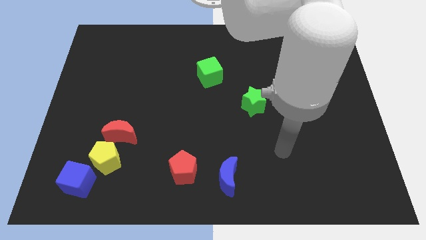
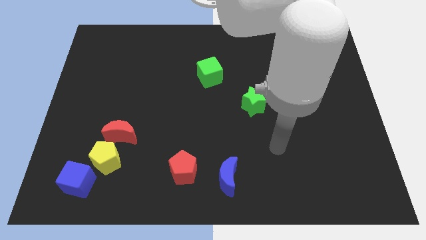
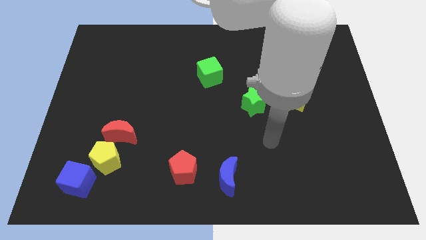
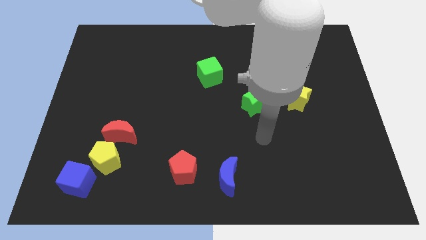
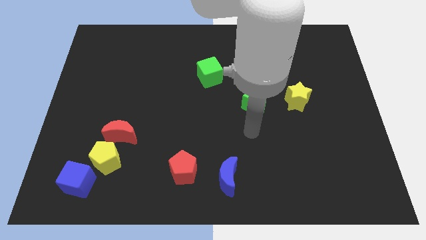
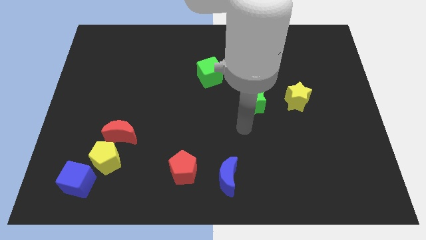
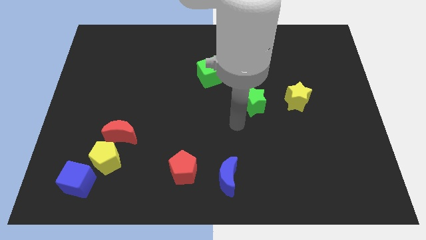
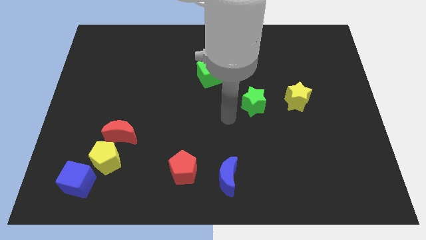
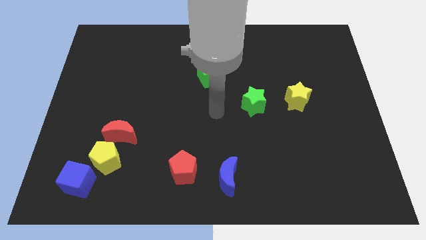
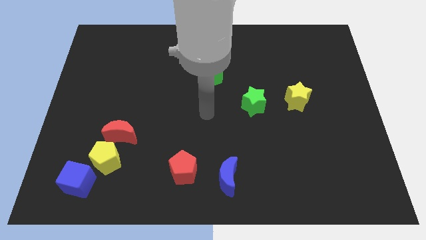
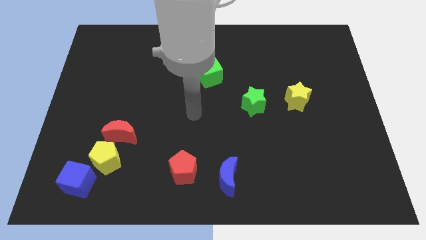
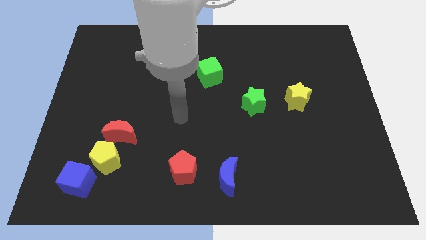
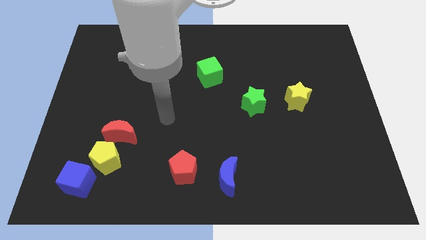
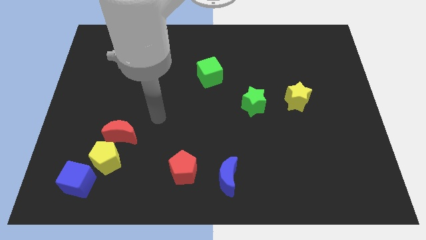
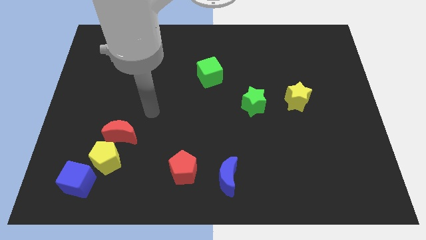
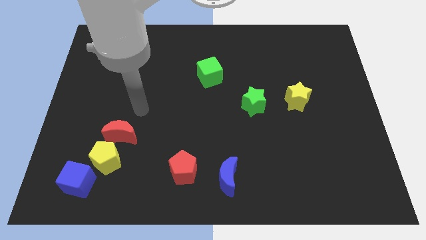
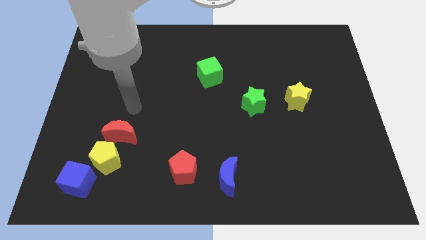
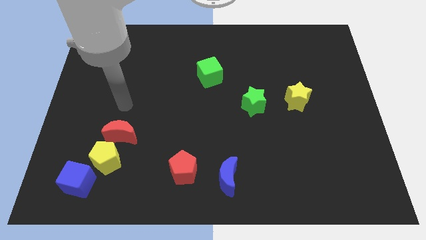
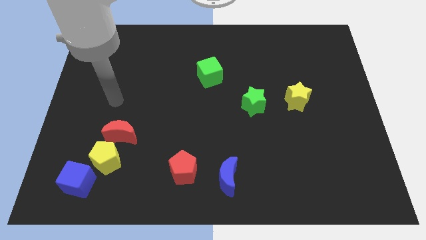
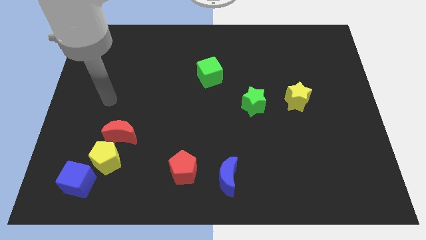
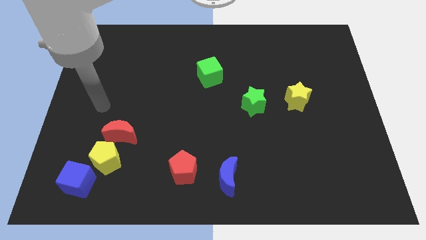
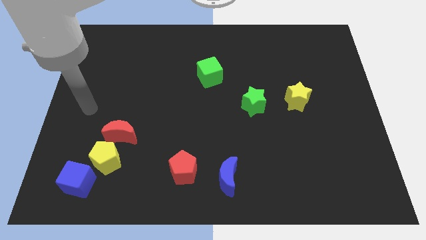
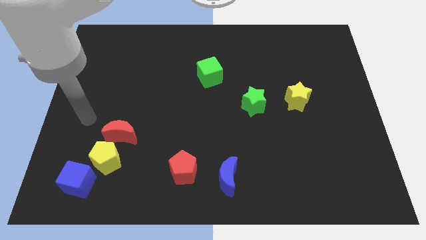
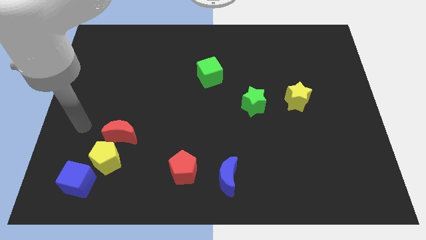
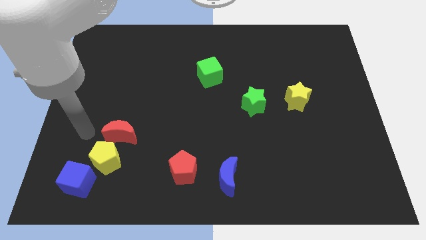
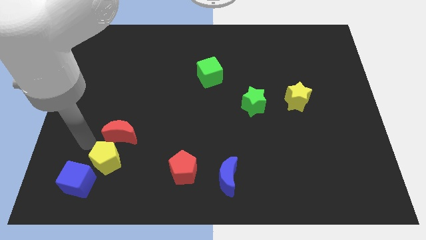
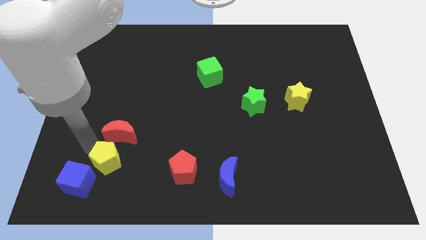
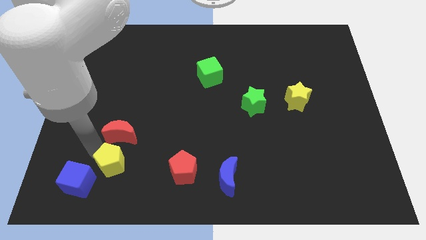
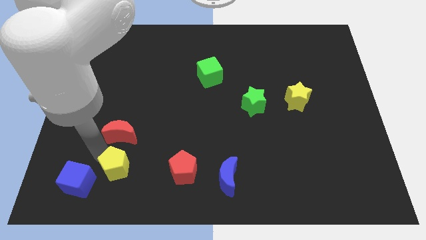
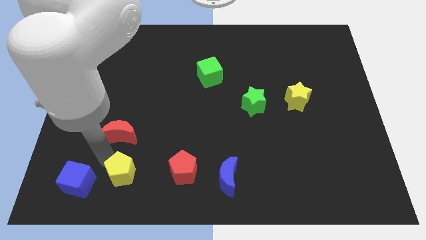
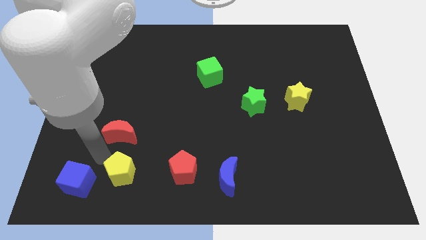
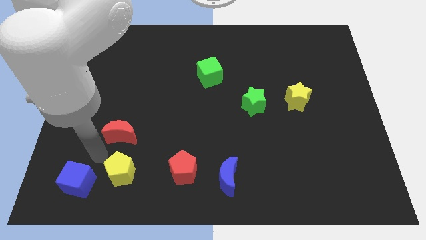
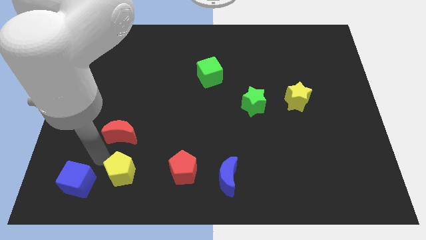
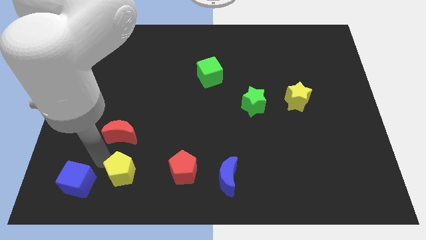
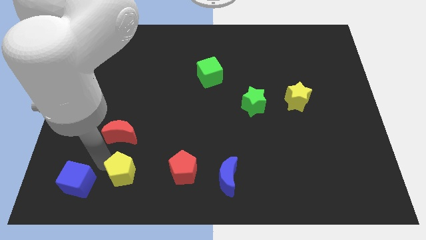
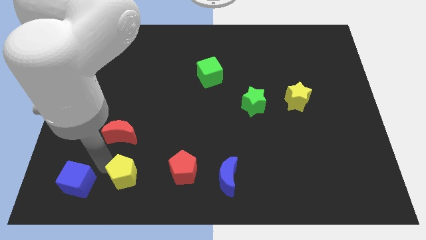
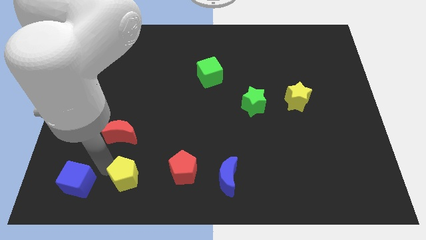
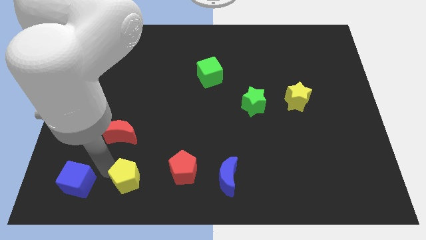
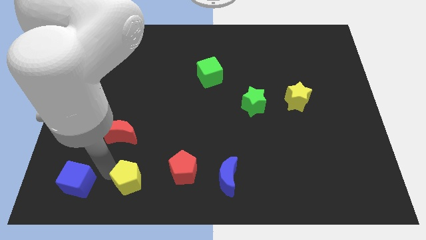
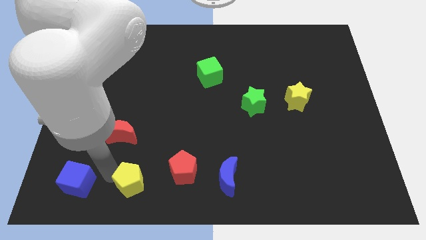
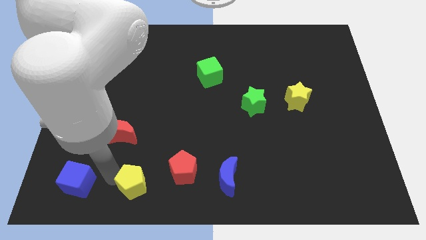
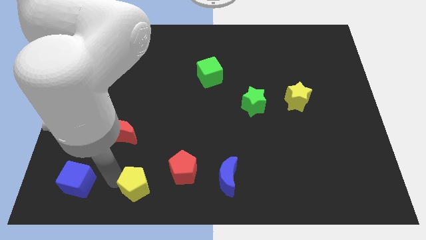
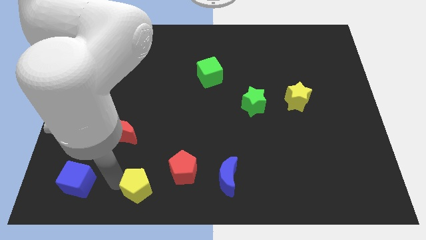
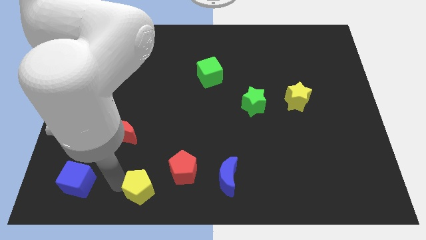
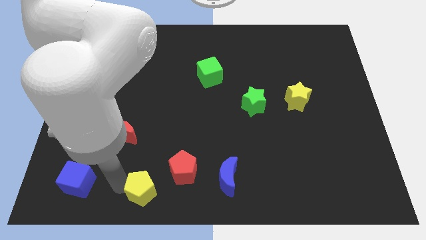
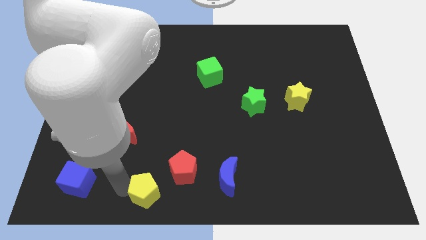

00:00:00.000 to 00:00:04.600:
slightly move the yellow pentagon right

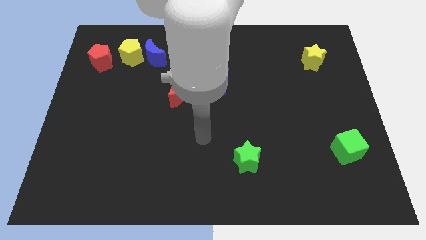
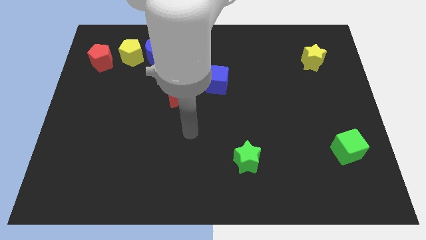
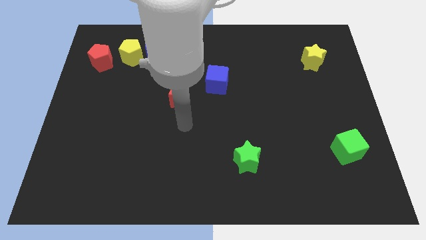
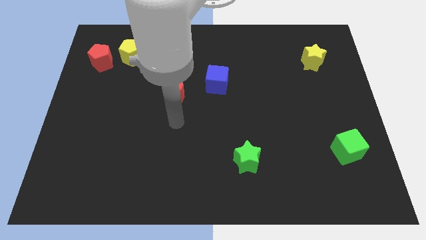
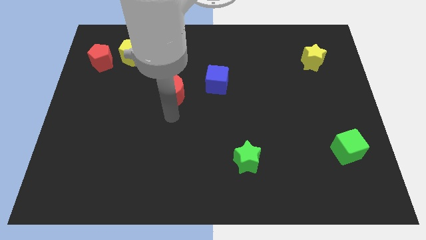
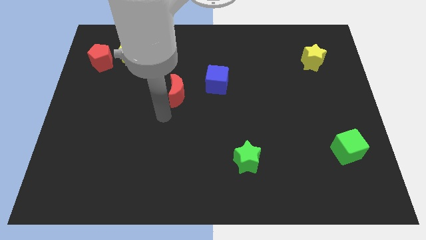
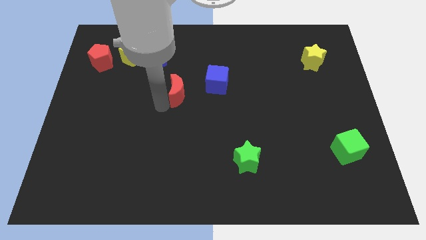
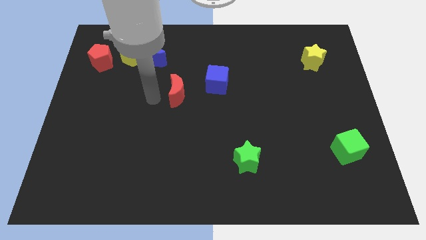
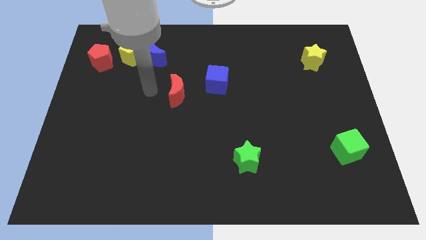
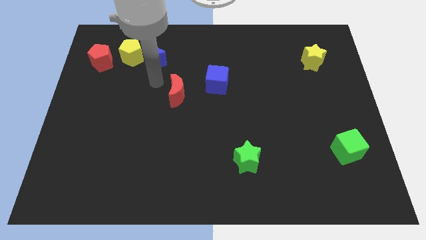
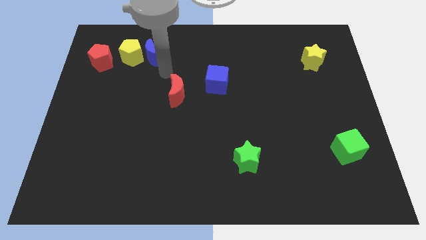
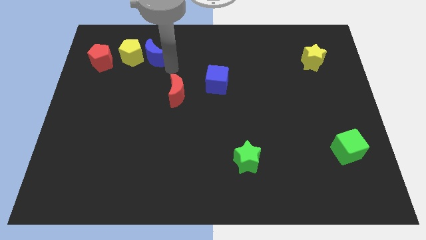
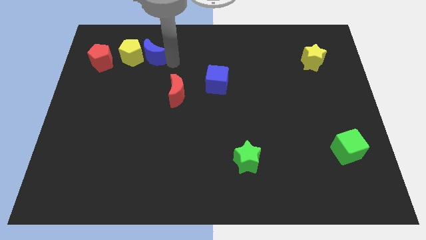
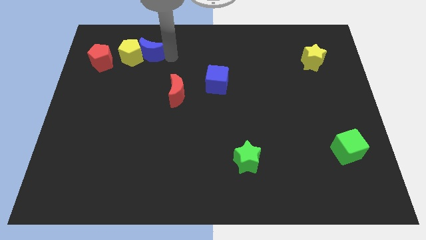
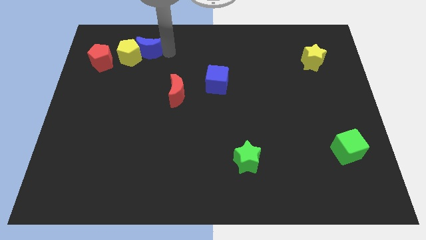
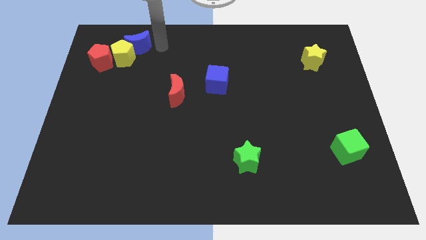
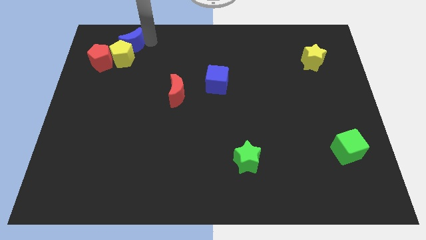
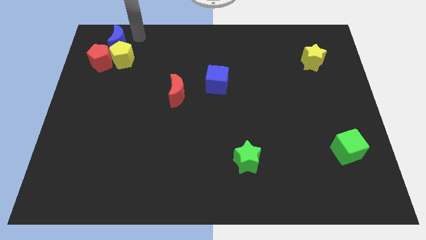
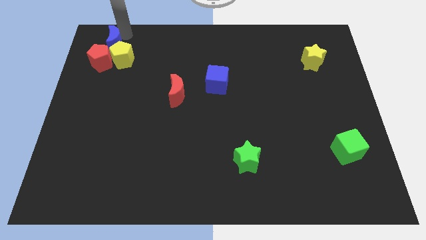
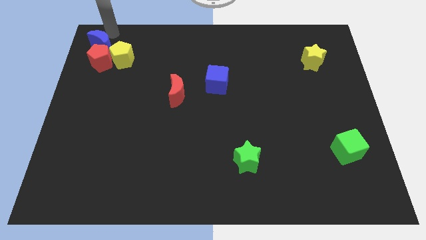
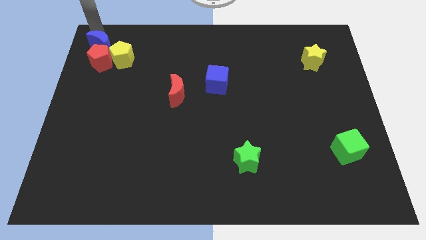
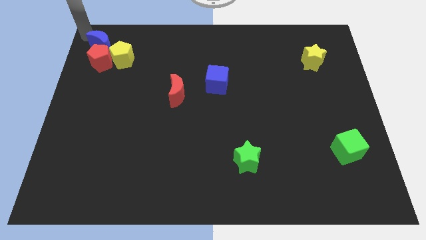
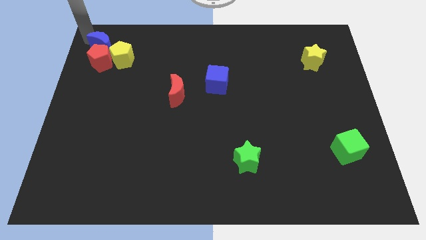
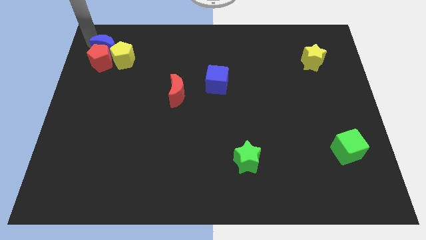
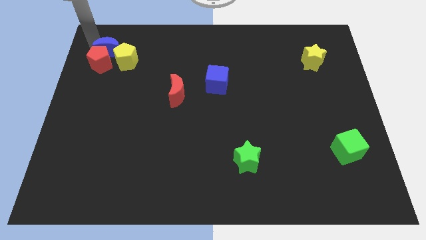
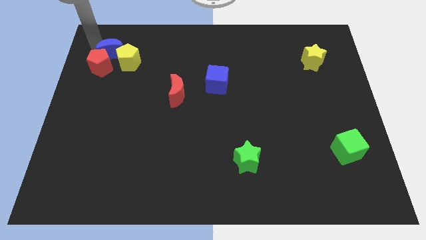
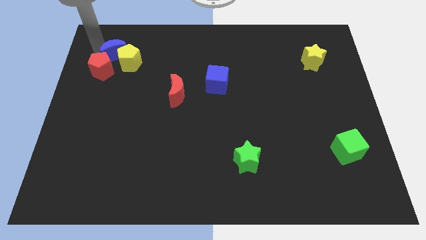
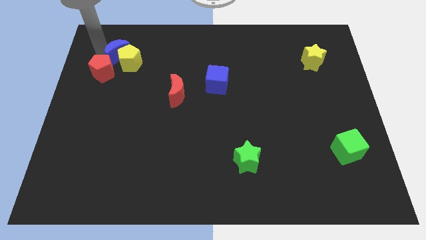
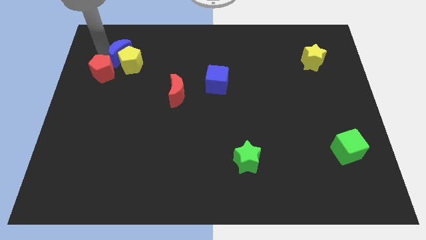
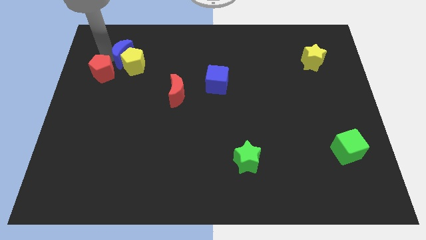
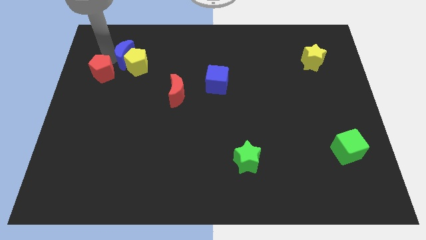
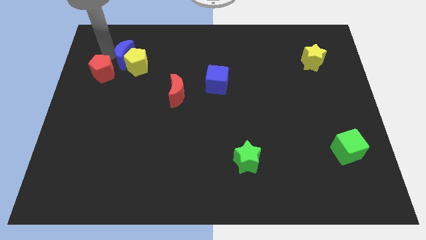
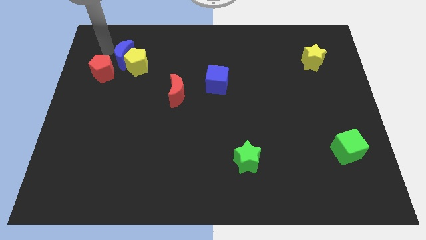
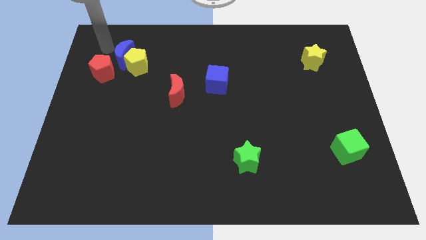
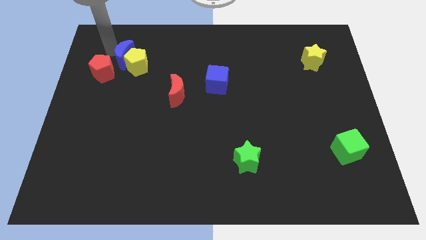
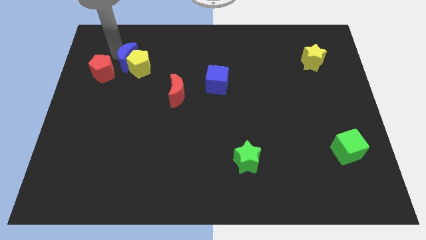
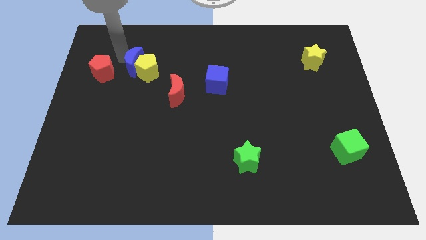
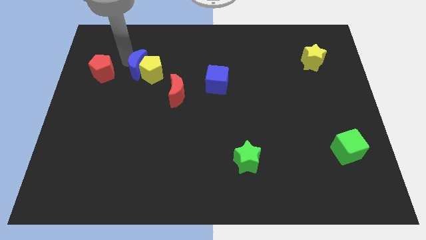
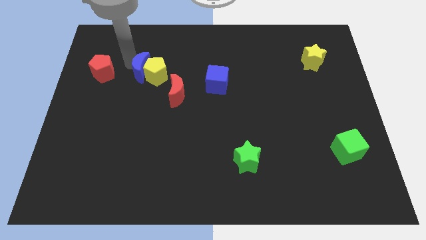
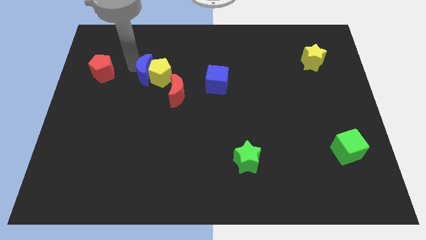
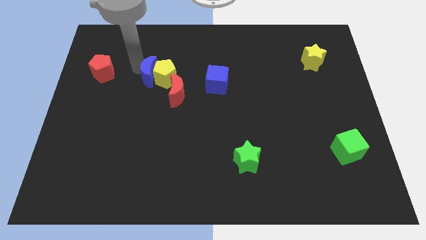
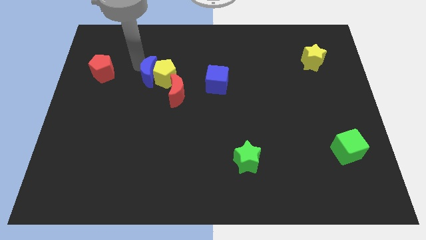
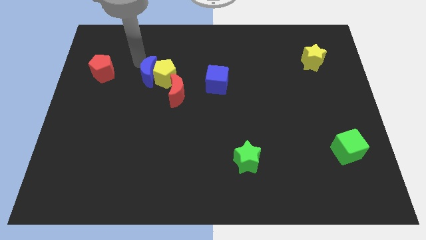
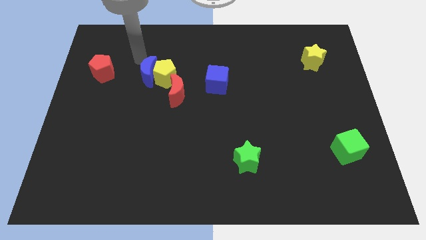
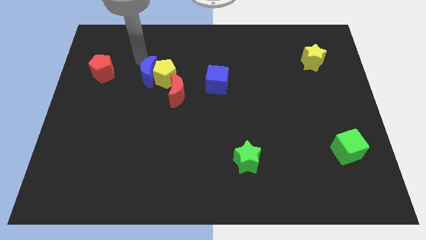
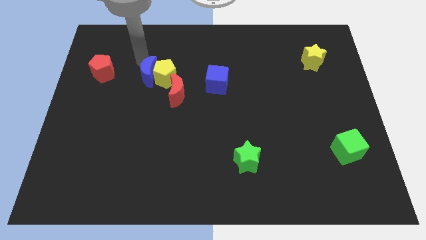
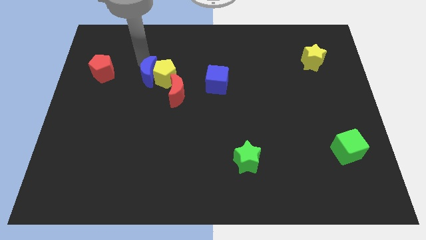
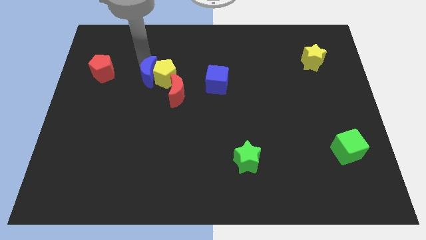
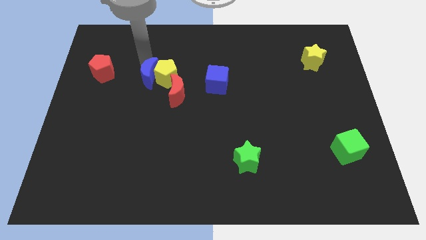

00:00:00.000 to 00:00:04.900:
move the blue moon downwards slightly
